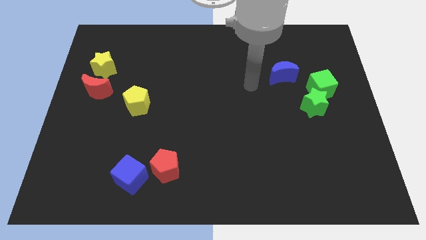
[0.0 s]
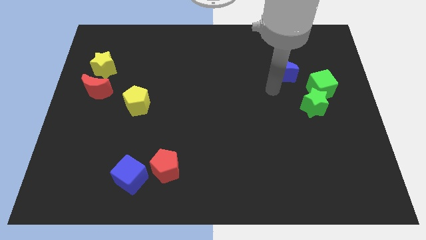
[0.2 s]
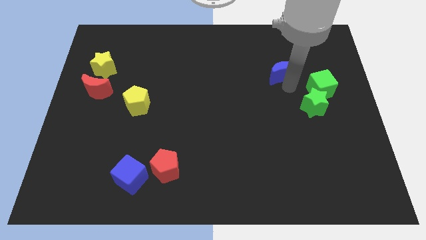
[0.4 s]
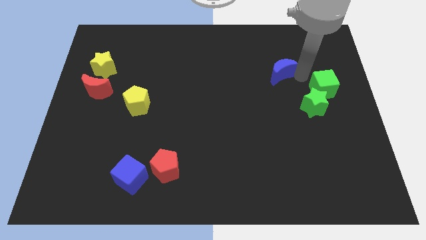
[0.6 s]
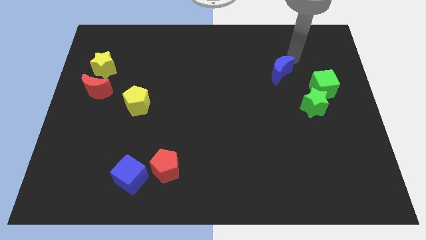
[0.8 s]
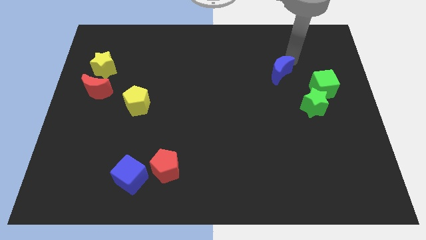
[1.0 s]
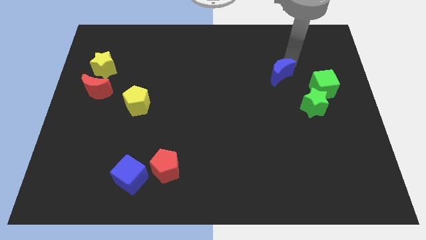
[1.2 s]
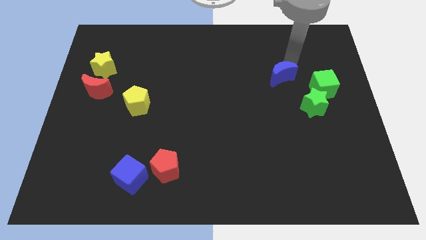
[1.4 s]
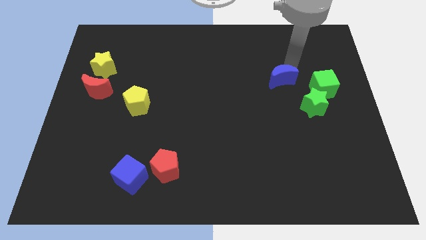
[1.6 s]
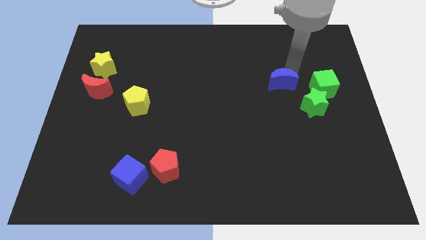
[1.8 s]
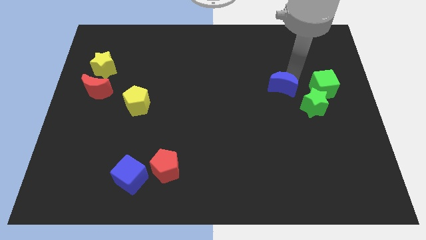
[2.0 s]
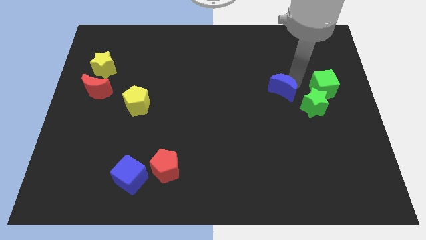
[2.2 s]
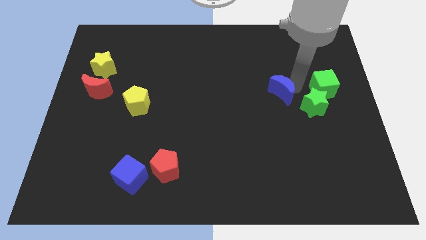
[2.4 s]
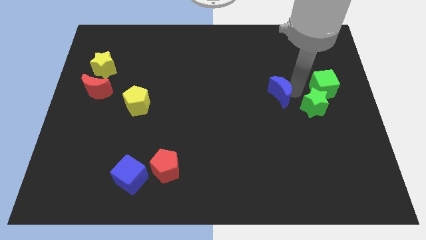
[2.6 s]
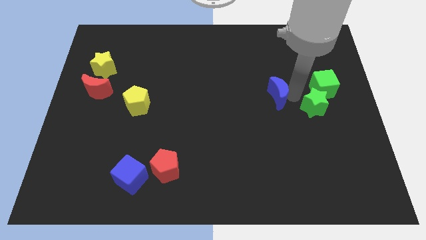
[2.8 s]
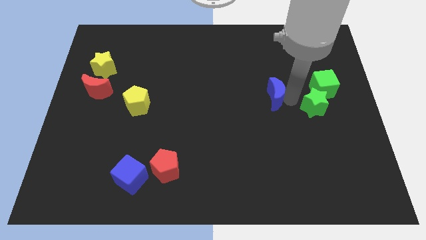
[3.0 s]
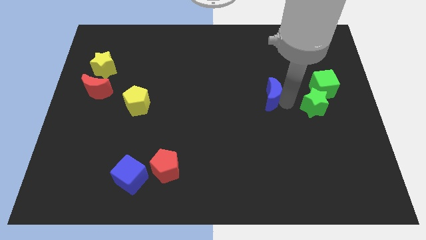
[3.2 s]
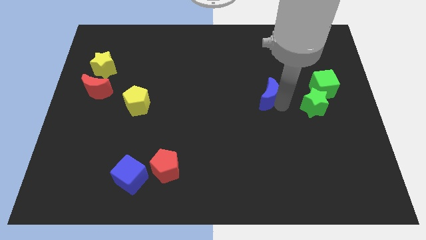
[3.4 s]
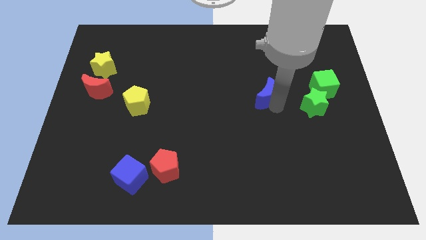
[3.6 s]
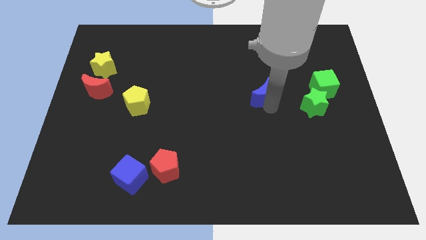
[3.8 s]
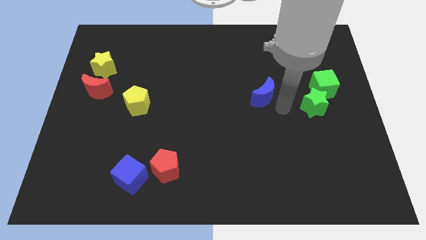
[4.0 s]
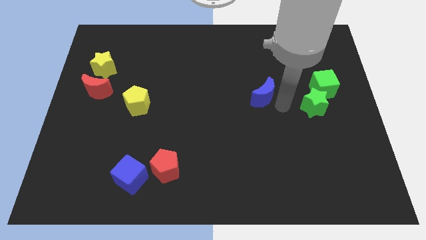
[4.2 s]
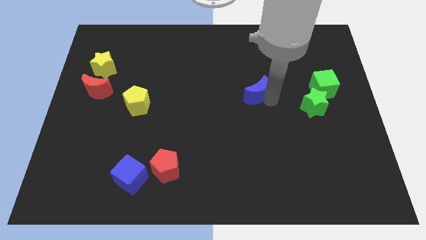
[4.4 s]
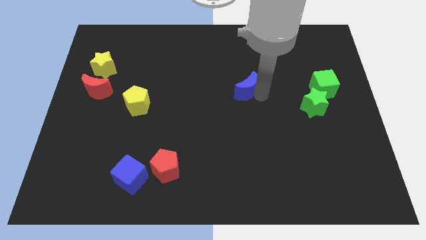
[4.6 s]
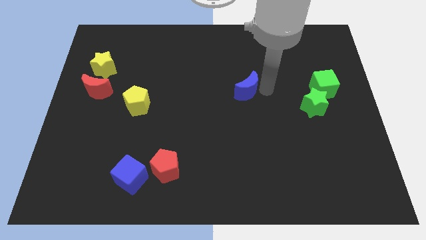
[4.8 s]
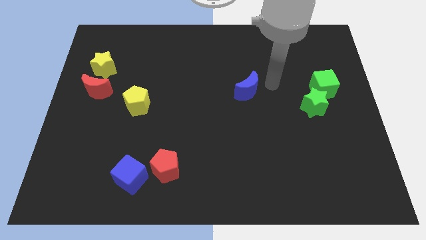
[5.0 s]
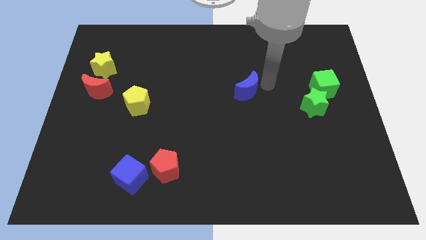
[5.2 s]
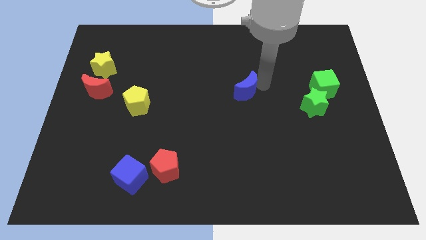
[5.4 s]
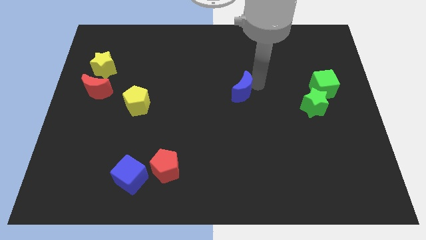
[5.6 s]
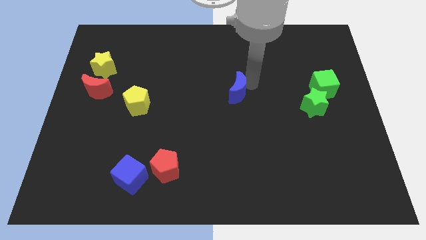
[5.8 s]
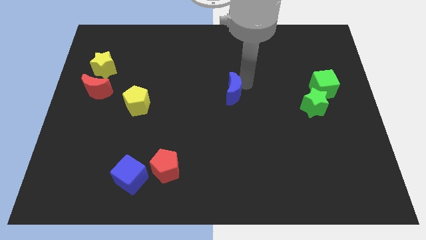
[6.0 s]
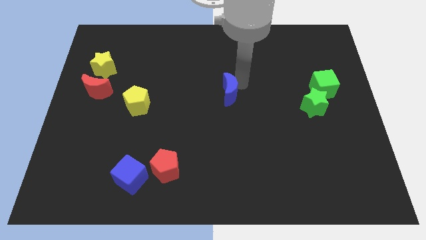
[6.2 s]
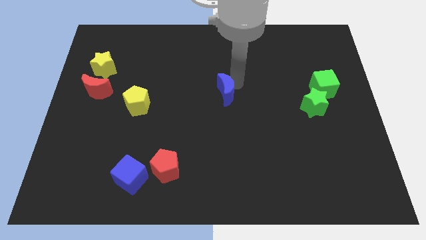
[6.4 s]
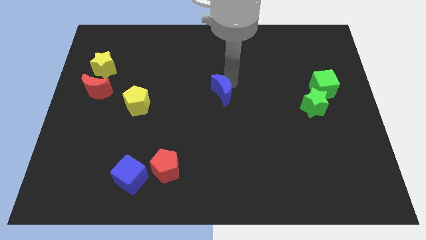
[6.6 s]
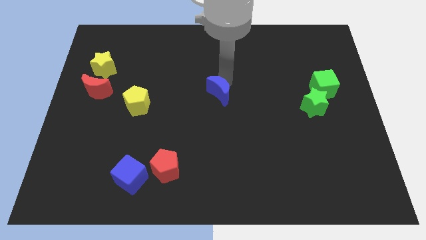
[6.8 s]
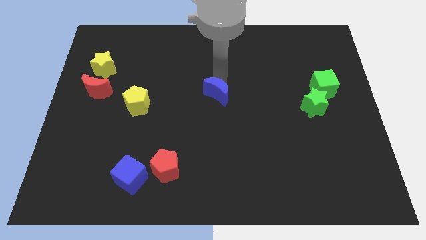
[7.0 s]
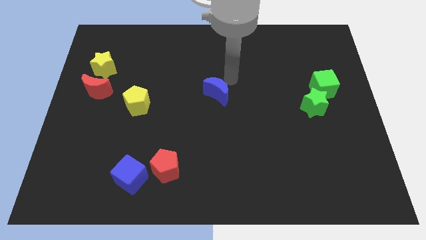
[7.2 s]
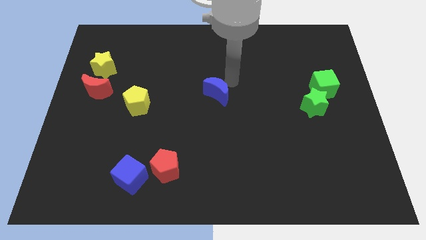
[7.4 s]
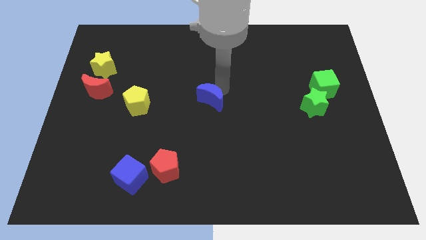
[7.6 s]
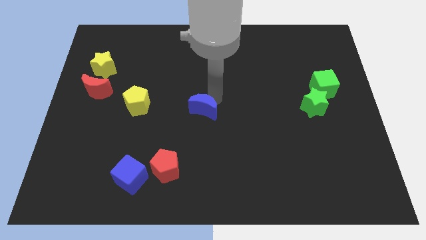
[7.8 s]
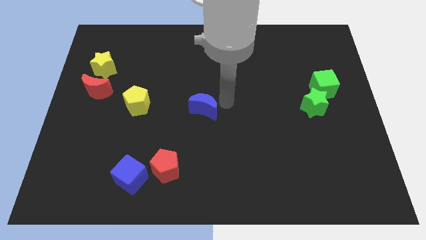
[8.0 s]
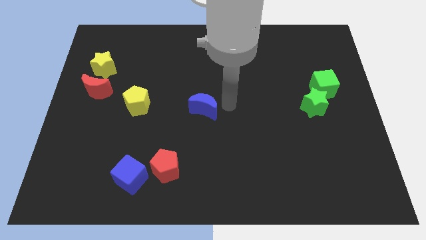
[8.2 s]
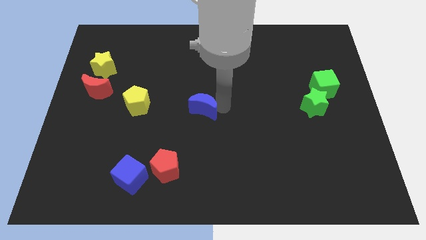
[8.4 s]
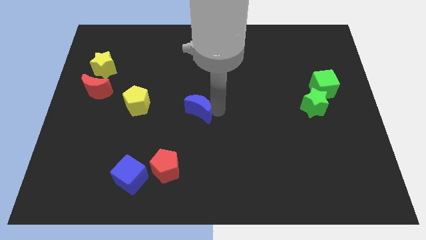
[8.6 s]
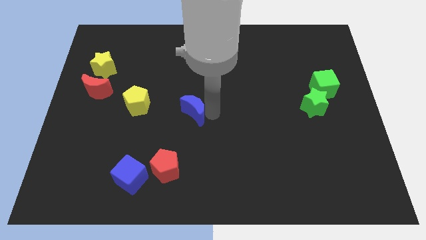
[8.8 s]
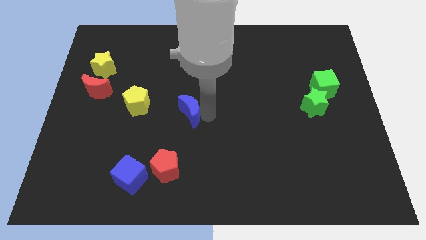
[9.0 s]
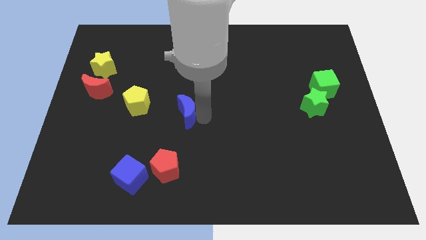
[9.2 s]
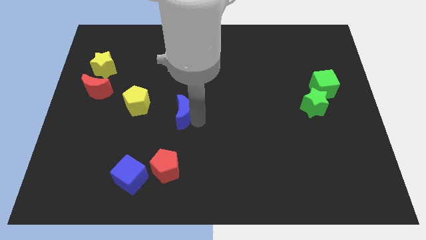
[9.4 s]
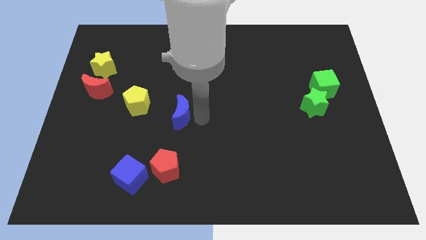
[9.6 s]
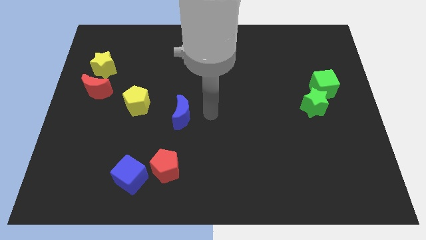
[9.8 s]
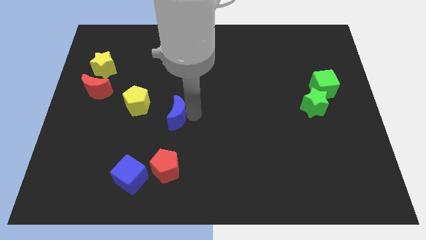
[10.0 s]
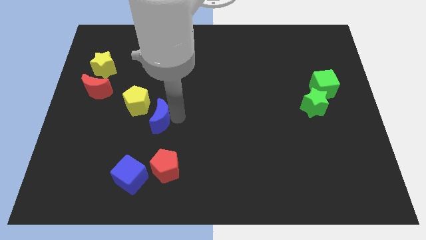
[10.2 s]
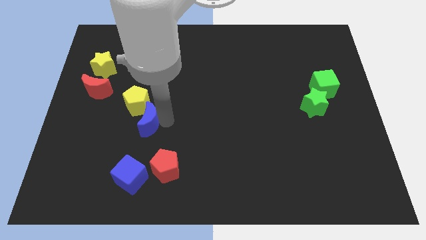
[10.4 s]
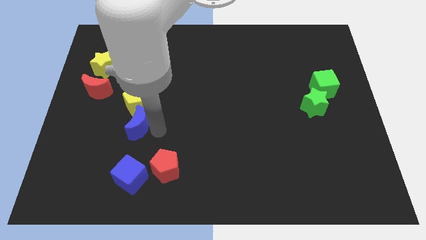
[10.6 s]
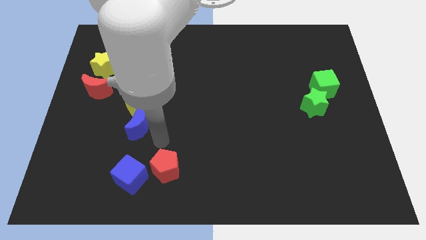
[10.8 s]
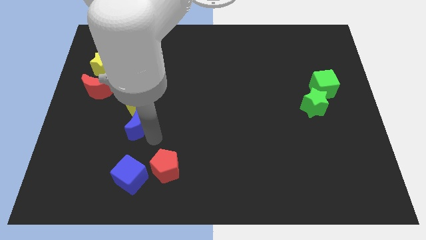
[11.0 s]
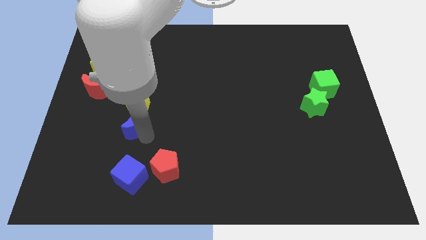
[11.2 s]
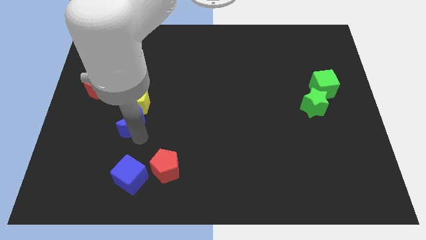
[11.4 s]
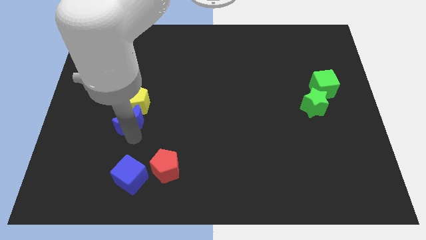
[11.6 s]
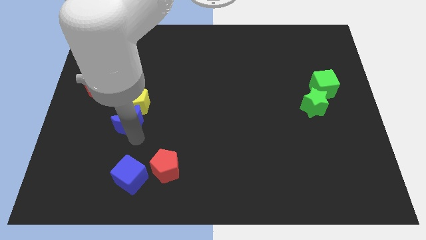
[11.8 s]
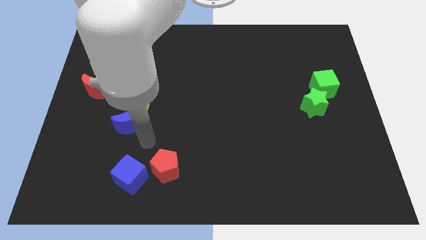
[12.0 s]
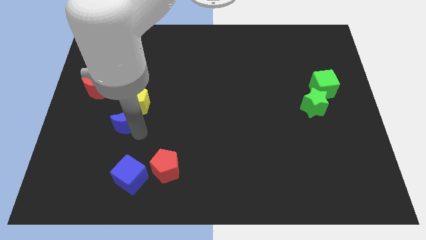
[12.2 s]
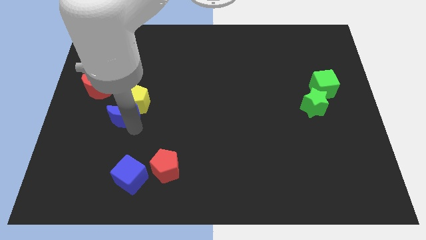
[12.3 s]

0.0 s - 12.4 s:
push the blue moon to the bottom right of the red moon

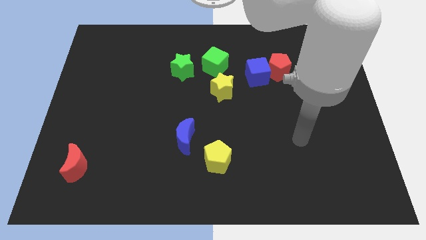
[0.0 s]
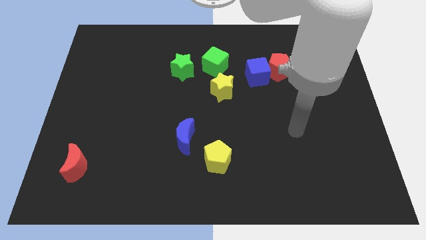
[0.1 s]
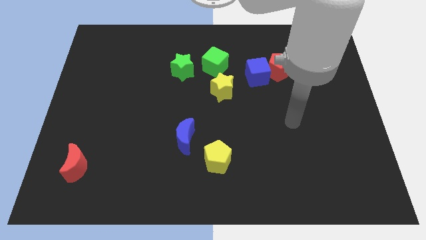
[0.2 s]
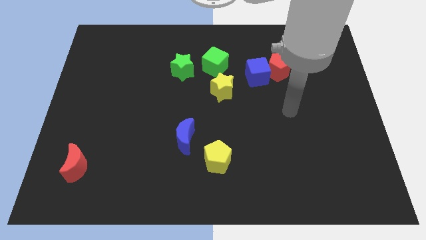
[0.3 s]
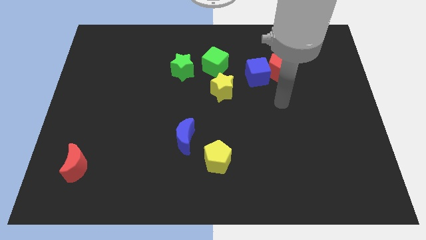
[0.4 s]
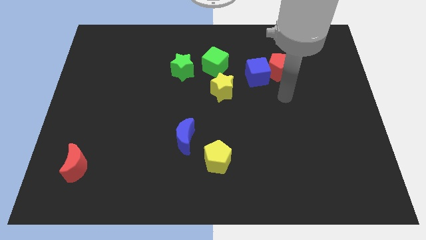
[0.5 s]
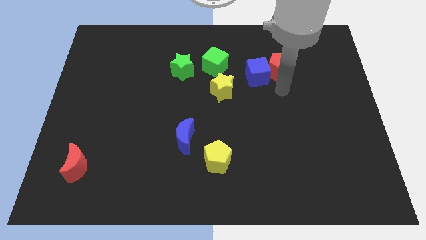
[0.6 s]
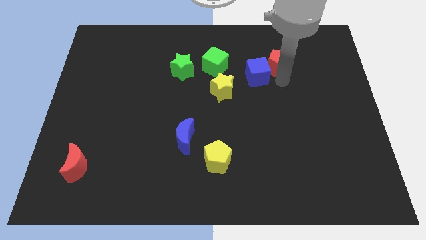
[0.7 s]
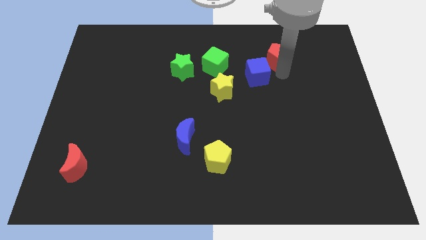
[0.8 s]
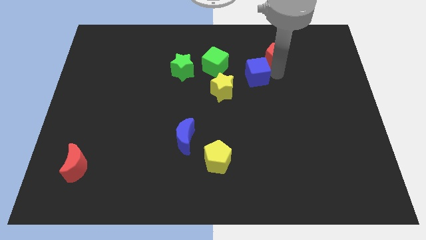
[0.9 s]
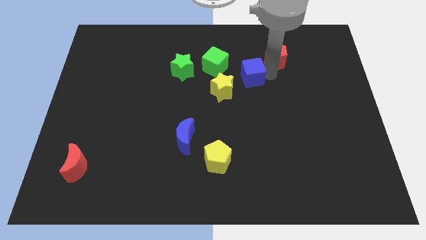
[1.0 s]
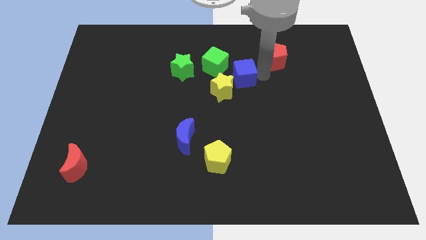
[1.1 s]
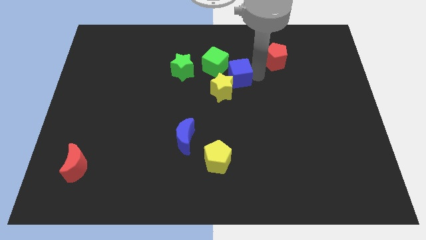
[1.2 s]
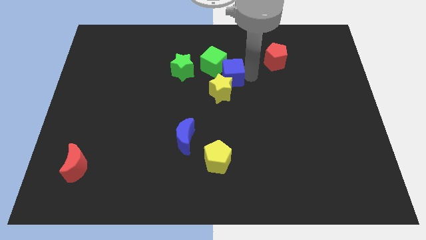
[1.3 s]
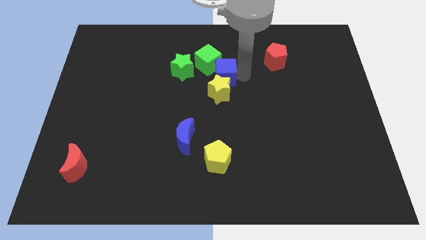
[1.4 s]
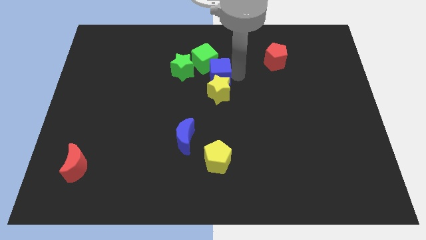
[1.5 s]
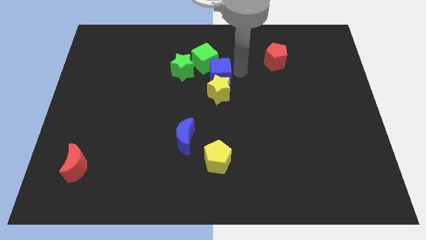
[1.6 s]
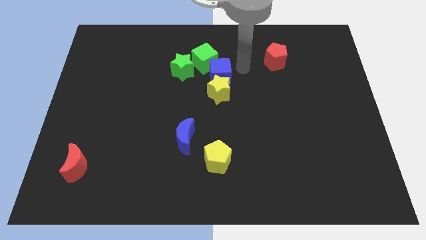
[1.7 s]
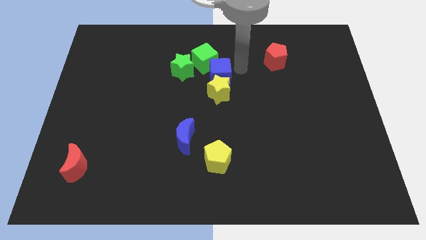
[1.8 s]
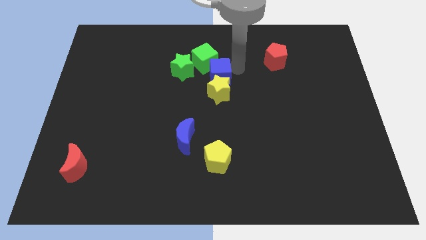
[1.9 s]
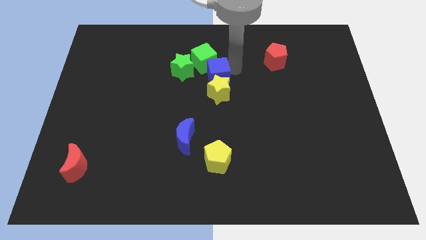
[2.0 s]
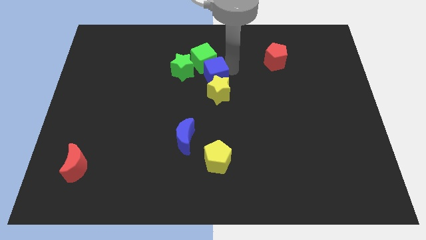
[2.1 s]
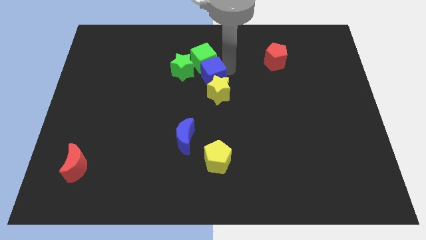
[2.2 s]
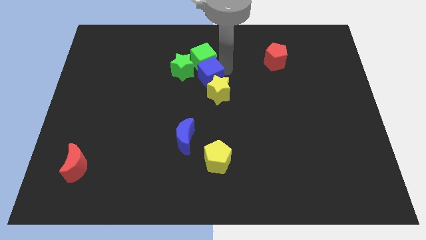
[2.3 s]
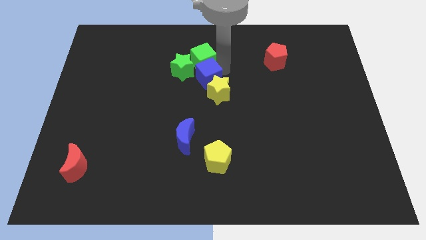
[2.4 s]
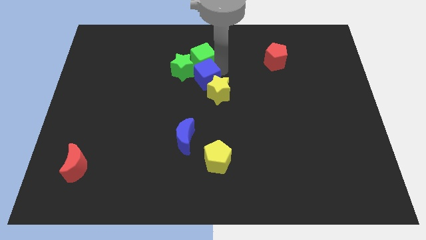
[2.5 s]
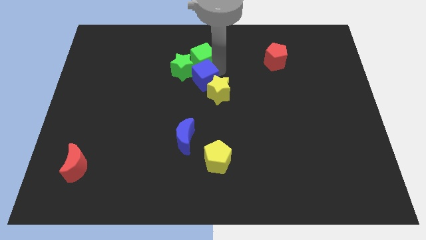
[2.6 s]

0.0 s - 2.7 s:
slide the blue cube just left of the yellow star
